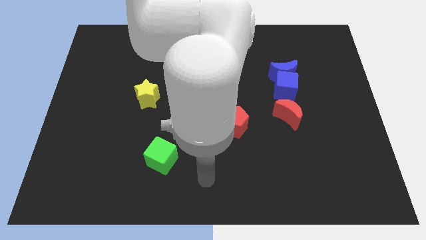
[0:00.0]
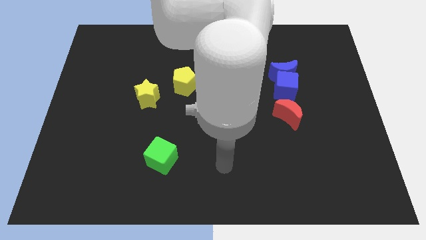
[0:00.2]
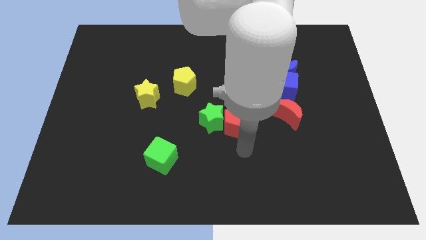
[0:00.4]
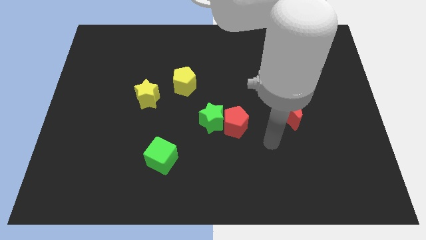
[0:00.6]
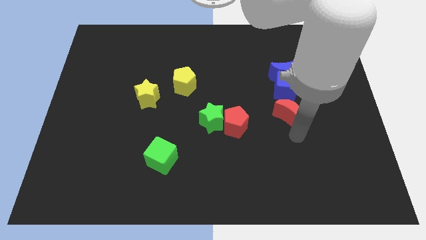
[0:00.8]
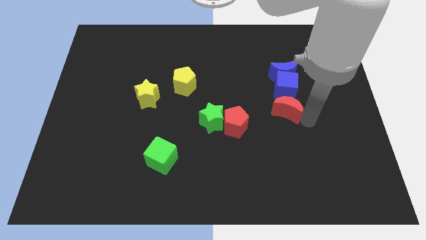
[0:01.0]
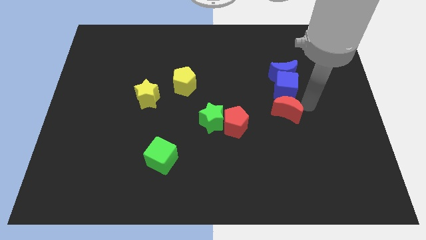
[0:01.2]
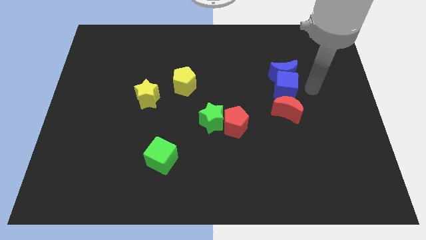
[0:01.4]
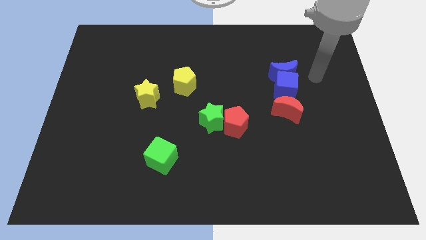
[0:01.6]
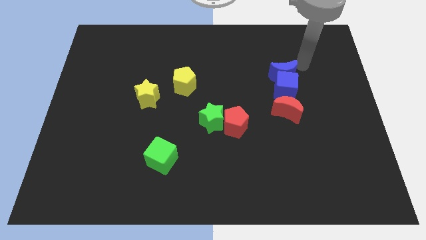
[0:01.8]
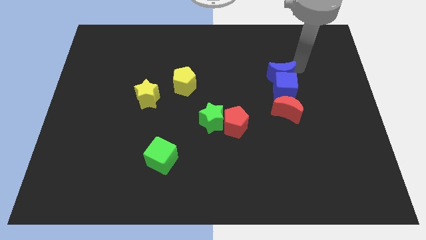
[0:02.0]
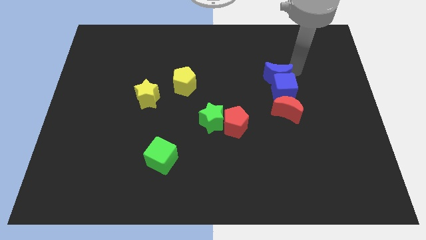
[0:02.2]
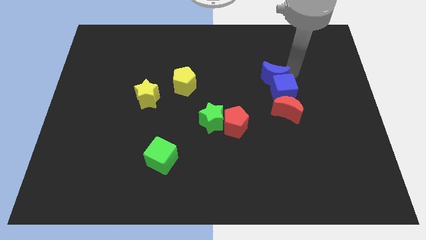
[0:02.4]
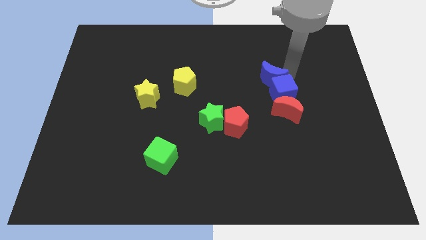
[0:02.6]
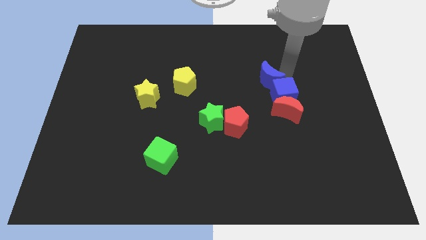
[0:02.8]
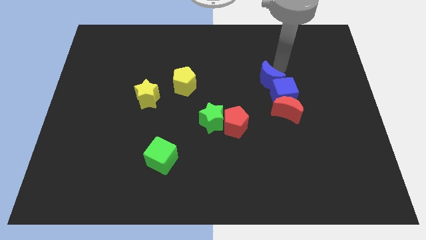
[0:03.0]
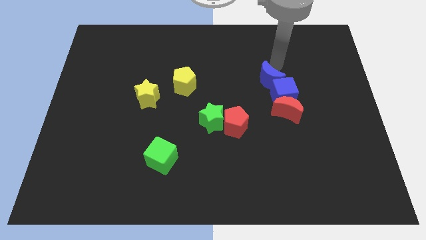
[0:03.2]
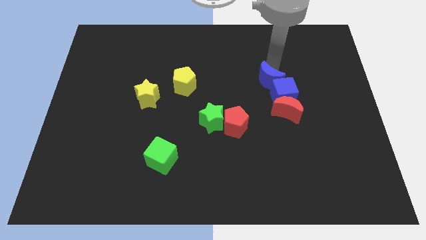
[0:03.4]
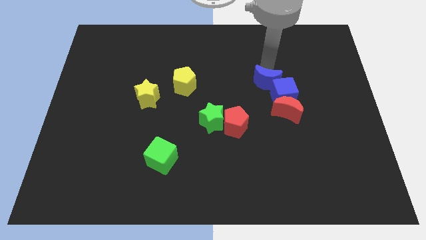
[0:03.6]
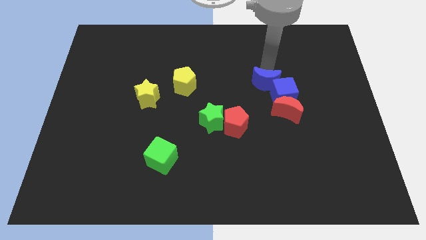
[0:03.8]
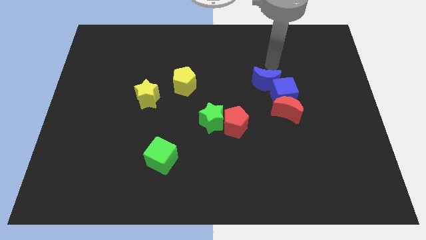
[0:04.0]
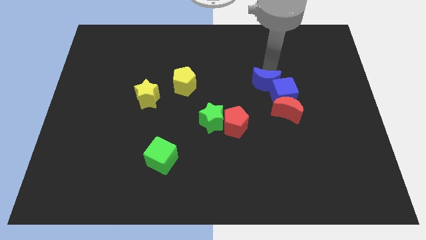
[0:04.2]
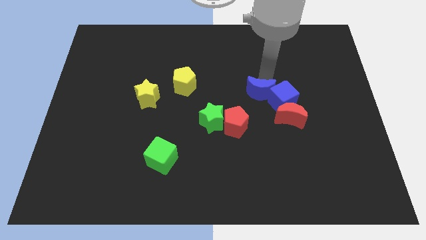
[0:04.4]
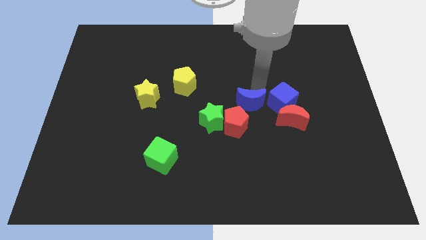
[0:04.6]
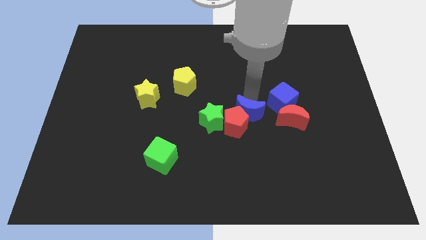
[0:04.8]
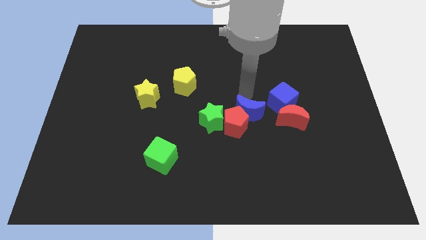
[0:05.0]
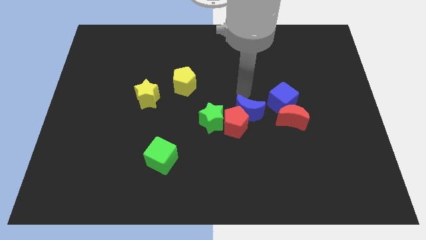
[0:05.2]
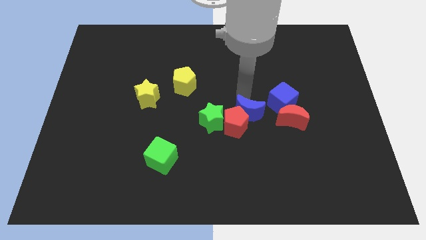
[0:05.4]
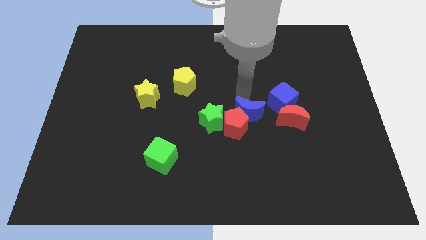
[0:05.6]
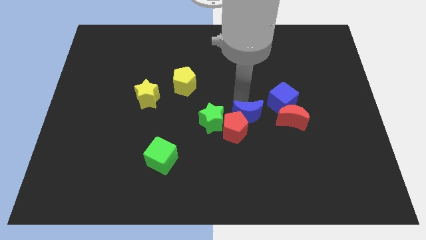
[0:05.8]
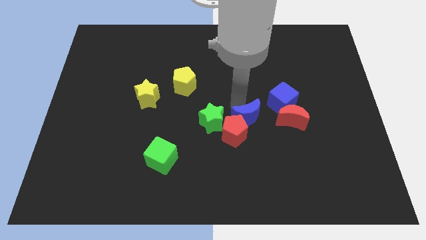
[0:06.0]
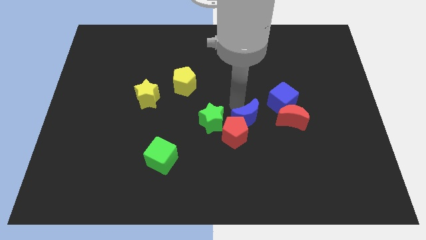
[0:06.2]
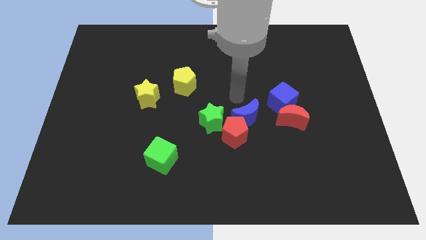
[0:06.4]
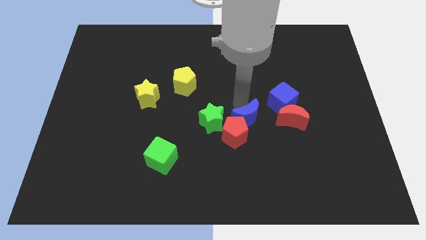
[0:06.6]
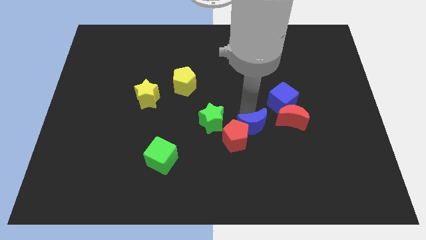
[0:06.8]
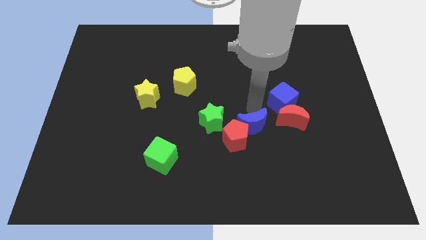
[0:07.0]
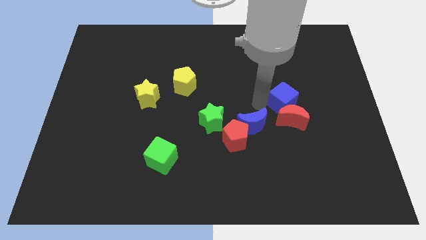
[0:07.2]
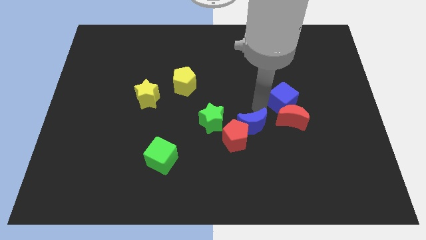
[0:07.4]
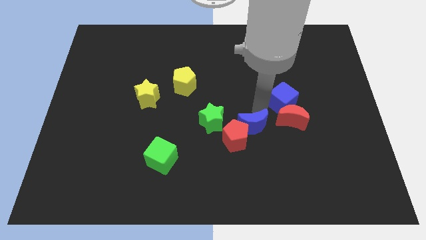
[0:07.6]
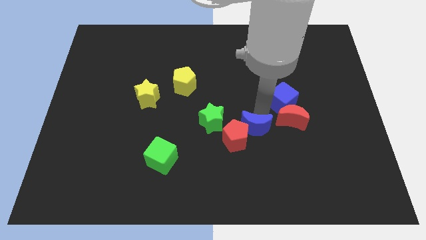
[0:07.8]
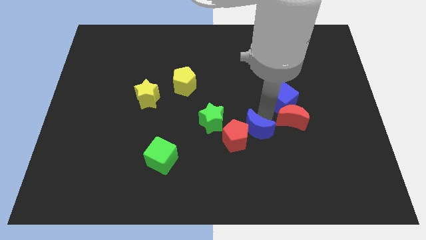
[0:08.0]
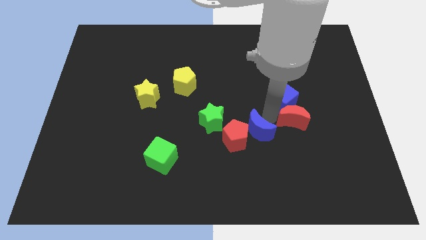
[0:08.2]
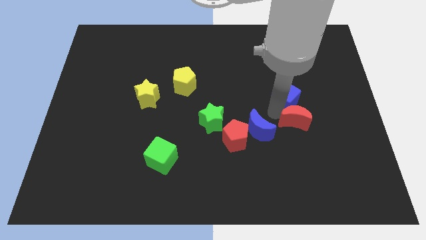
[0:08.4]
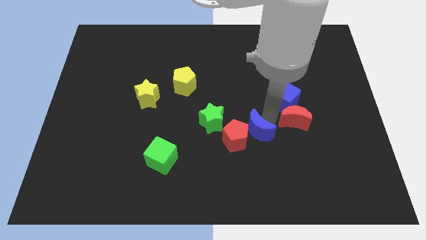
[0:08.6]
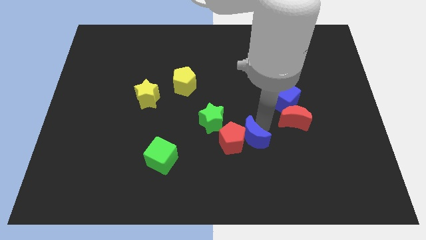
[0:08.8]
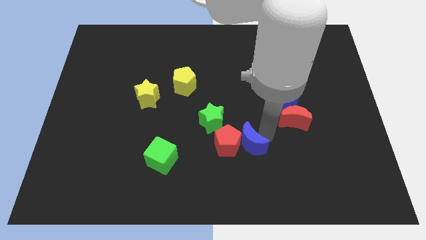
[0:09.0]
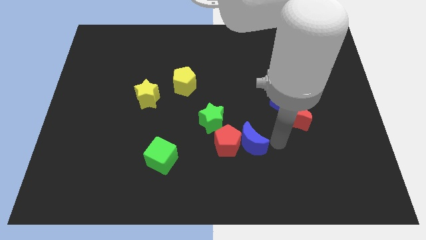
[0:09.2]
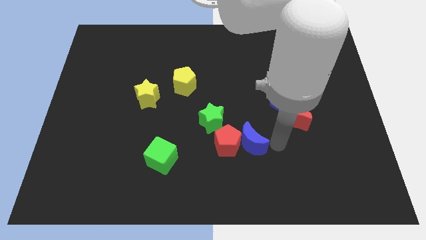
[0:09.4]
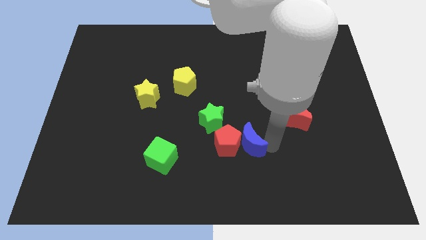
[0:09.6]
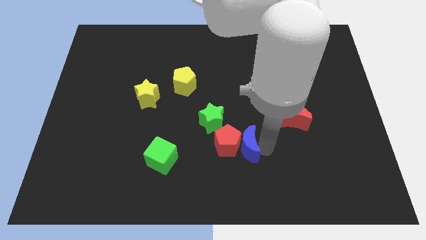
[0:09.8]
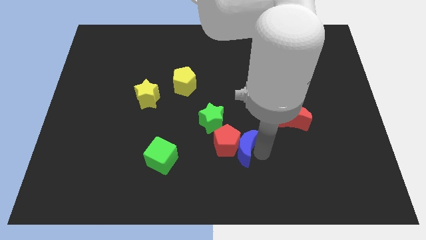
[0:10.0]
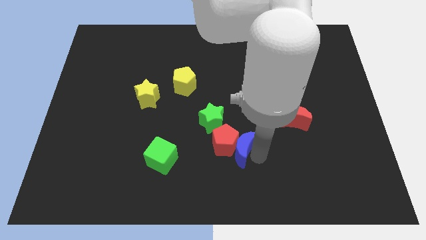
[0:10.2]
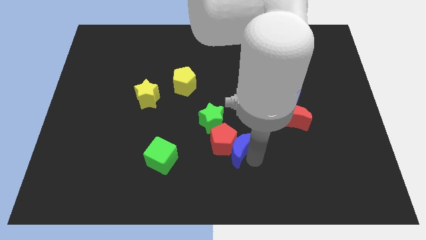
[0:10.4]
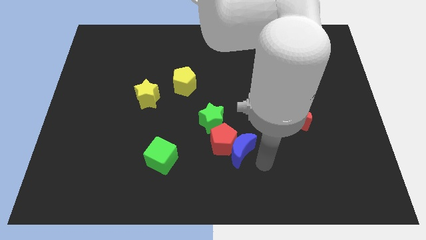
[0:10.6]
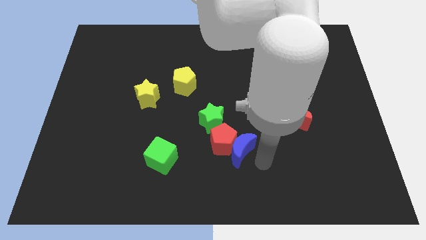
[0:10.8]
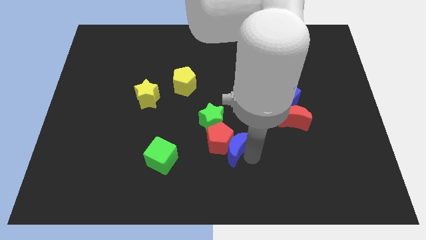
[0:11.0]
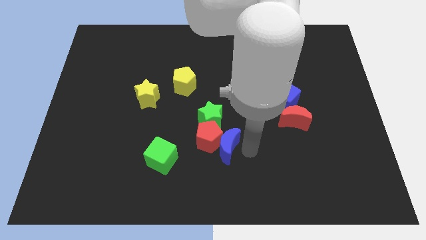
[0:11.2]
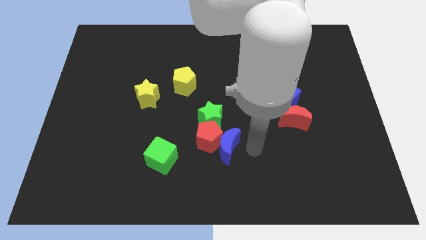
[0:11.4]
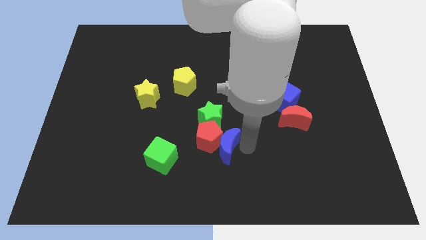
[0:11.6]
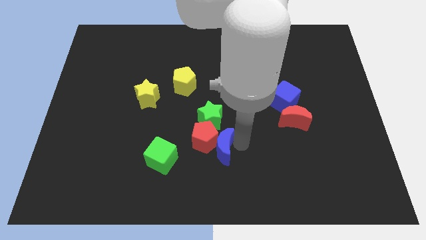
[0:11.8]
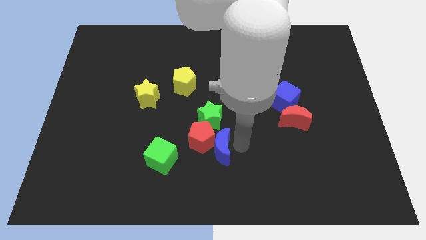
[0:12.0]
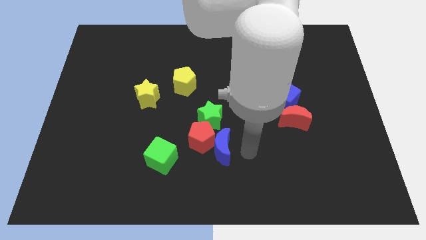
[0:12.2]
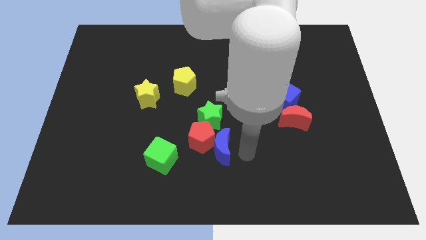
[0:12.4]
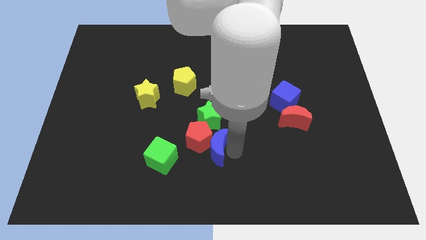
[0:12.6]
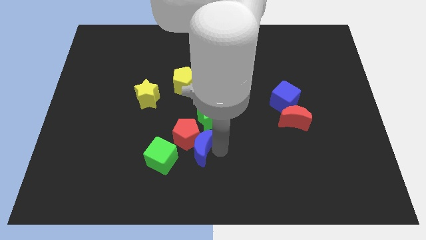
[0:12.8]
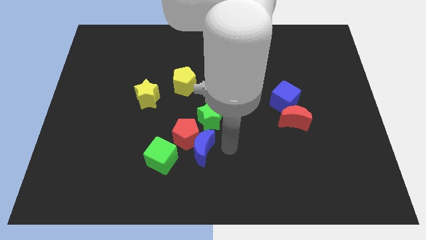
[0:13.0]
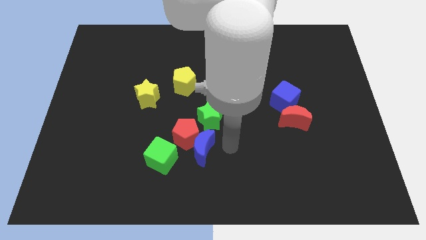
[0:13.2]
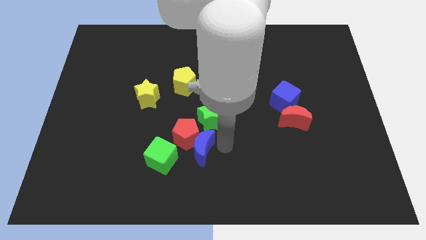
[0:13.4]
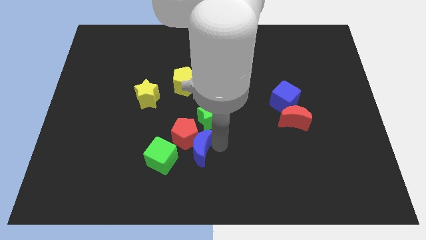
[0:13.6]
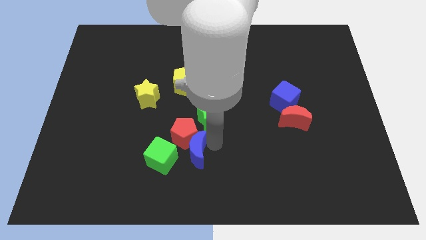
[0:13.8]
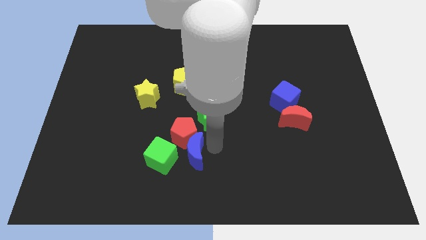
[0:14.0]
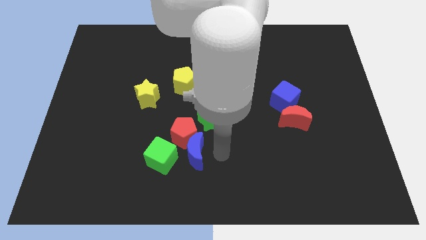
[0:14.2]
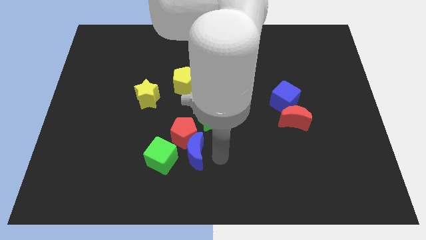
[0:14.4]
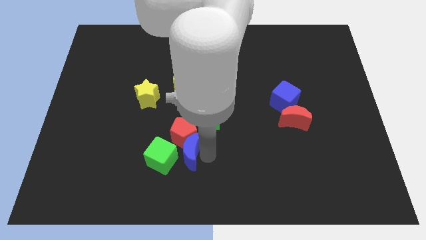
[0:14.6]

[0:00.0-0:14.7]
slide the blue moon towards the green cube
